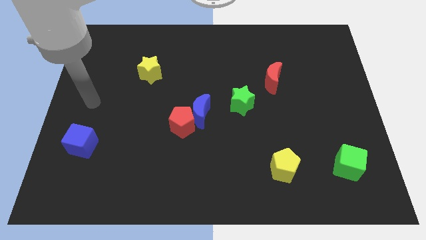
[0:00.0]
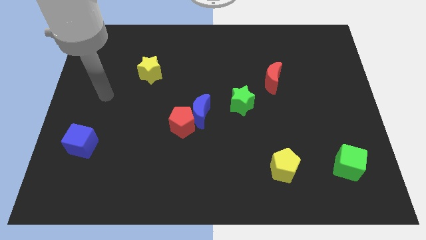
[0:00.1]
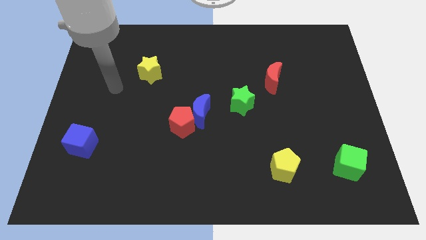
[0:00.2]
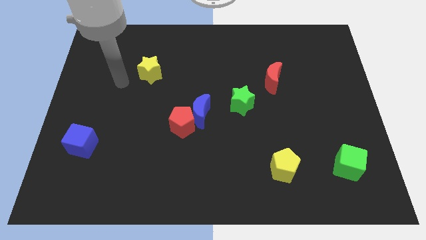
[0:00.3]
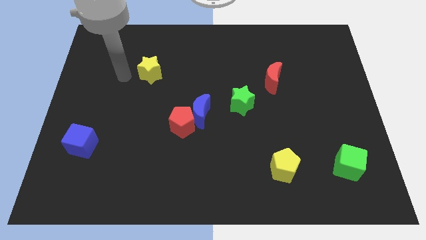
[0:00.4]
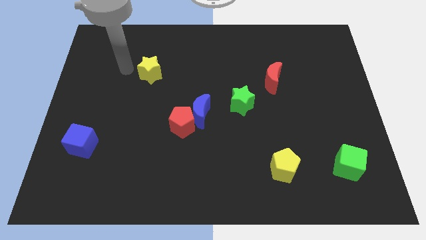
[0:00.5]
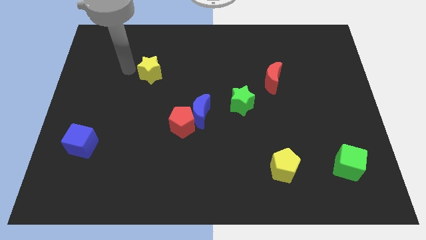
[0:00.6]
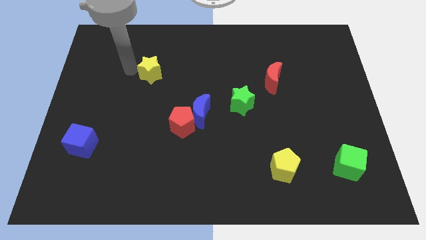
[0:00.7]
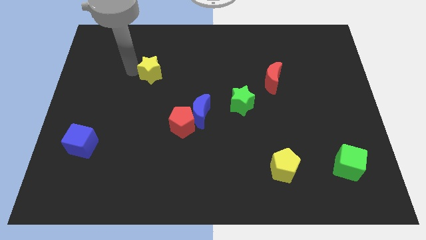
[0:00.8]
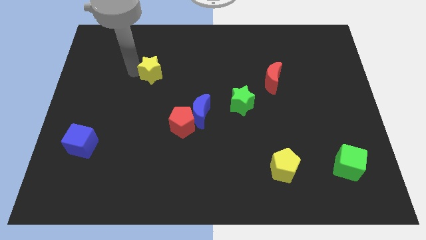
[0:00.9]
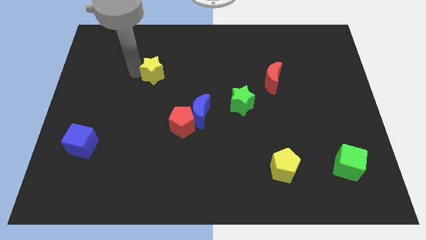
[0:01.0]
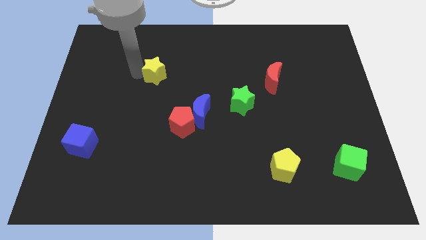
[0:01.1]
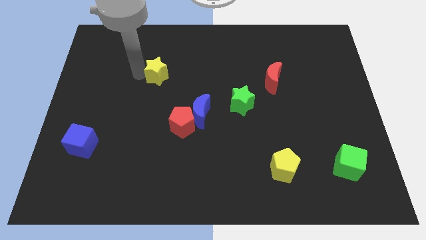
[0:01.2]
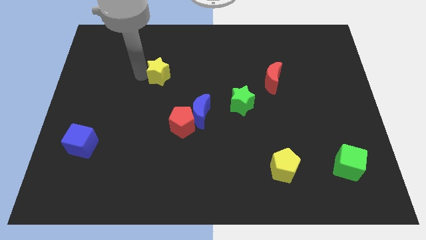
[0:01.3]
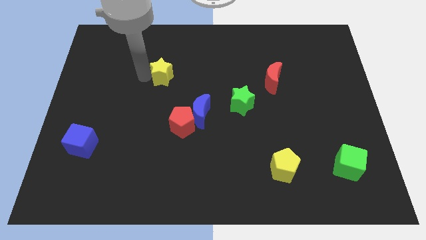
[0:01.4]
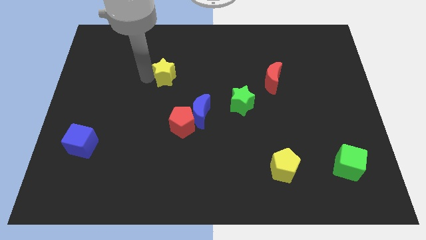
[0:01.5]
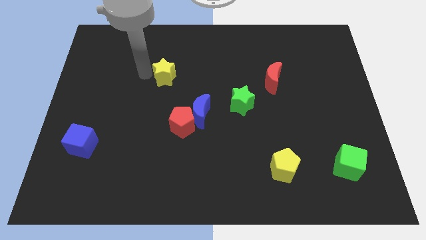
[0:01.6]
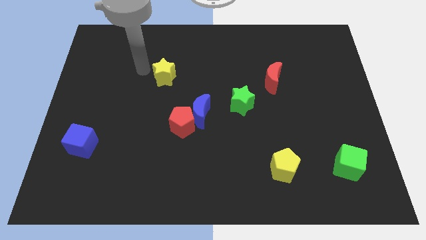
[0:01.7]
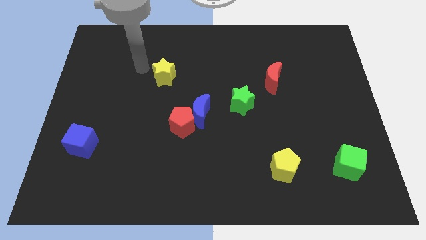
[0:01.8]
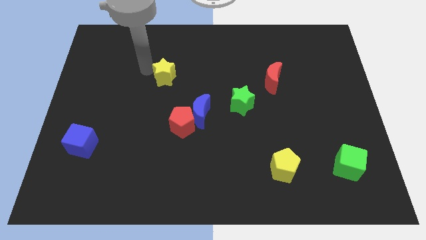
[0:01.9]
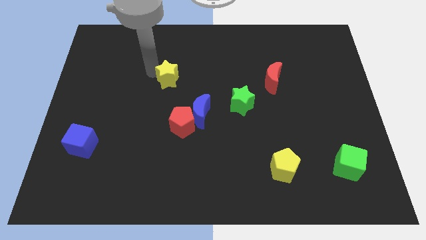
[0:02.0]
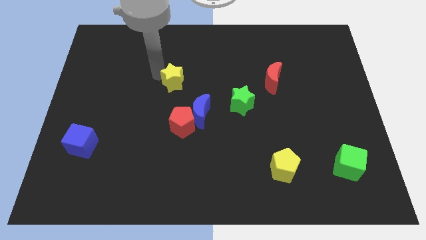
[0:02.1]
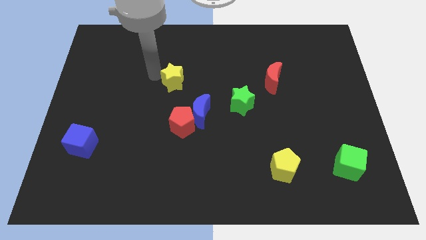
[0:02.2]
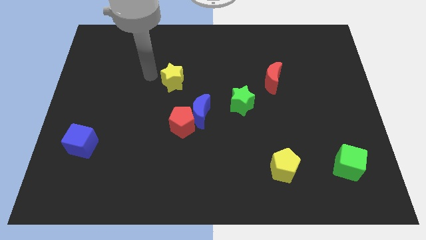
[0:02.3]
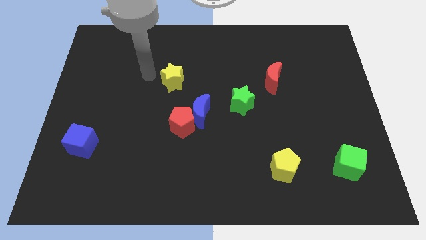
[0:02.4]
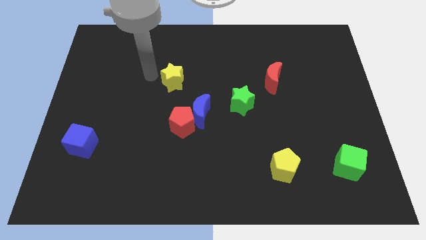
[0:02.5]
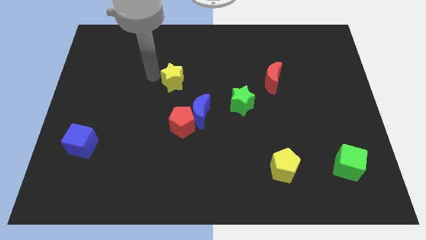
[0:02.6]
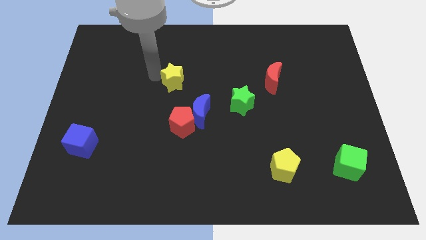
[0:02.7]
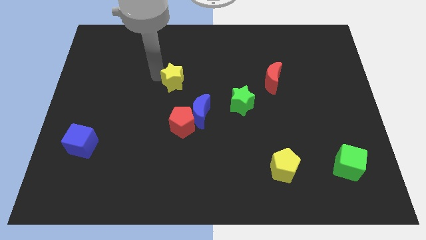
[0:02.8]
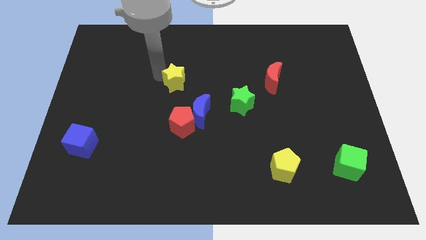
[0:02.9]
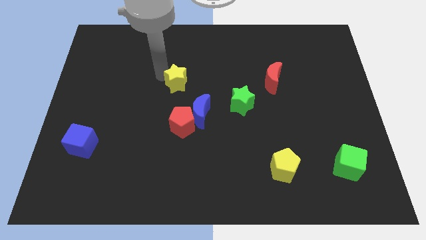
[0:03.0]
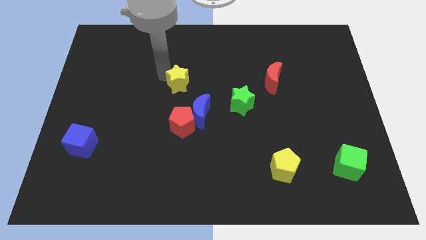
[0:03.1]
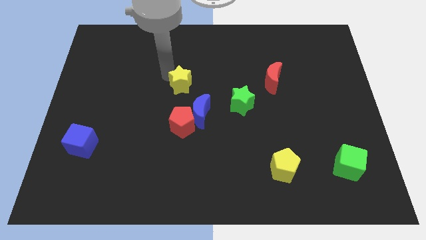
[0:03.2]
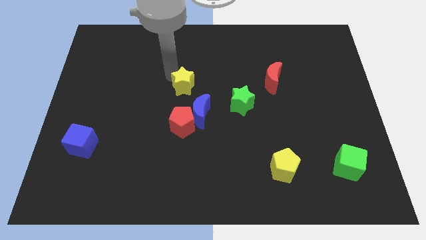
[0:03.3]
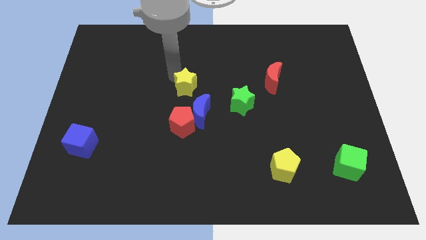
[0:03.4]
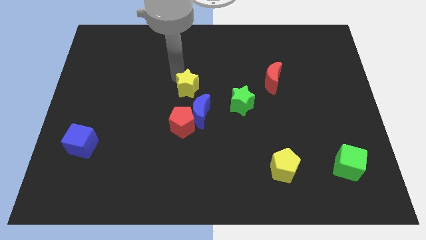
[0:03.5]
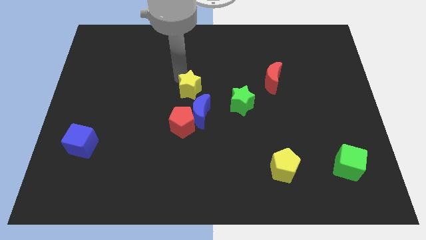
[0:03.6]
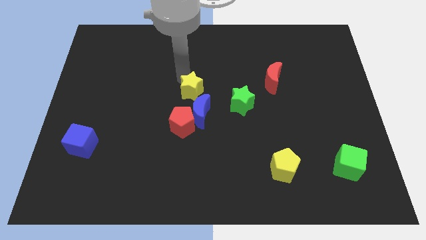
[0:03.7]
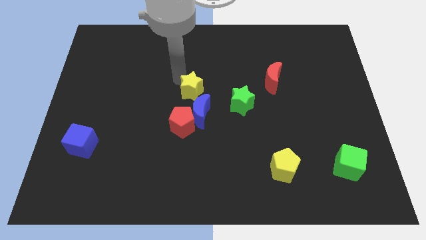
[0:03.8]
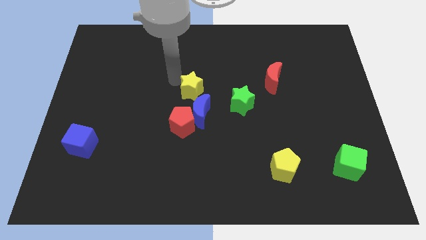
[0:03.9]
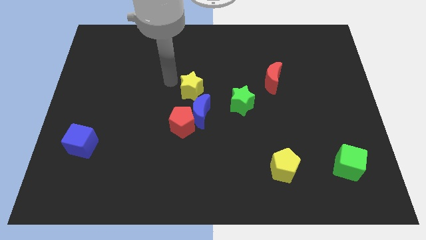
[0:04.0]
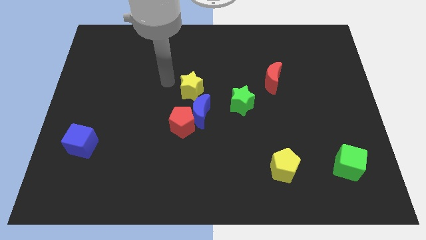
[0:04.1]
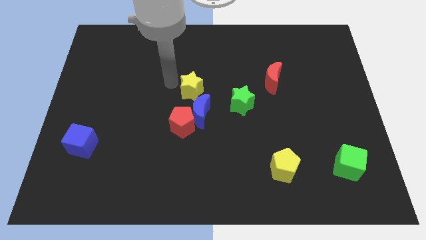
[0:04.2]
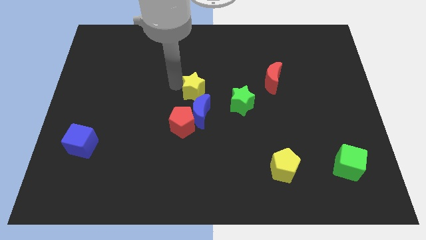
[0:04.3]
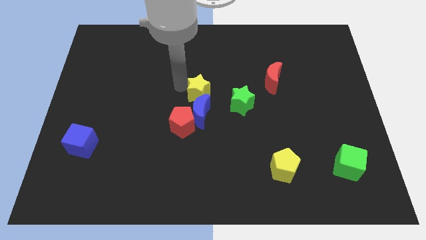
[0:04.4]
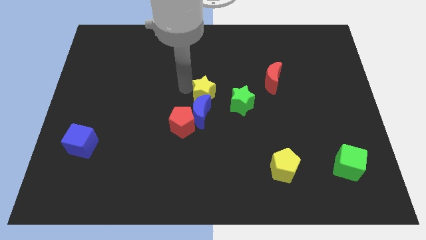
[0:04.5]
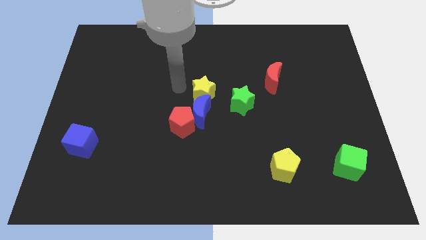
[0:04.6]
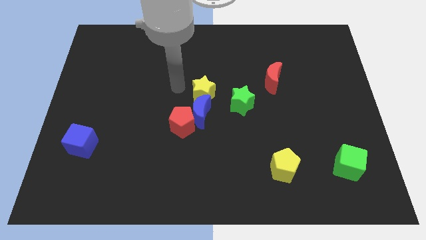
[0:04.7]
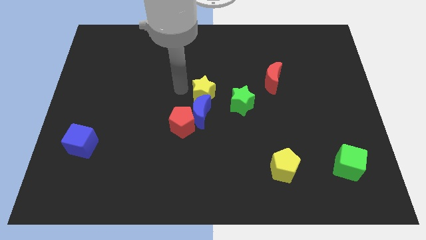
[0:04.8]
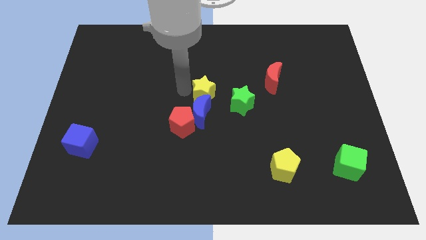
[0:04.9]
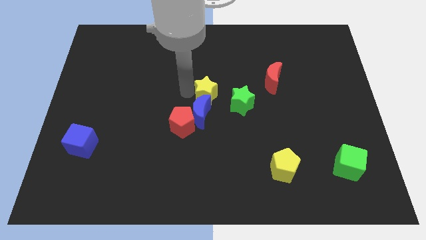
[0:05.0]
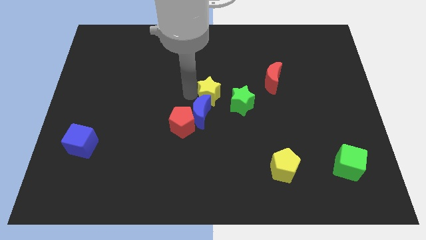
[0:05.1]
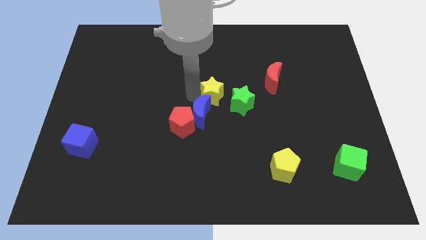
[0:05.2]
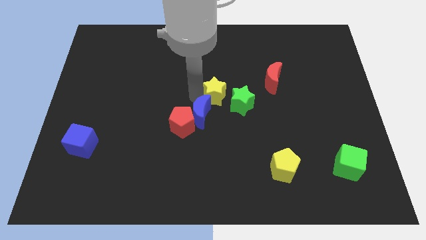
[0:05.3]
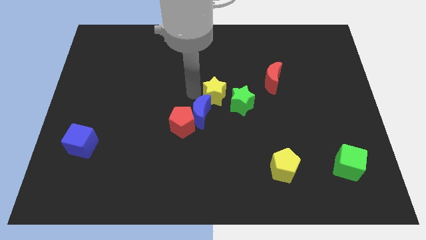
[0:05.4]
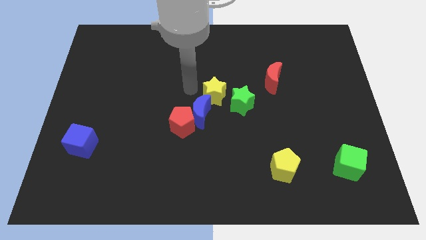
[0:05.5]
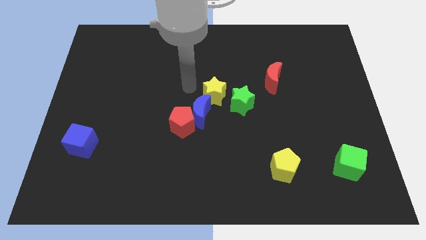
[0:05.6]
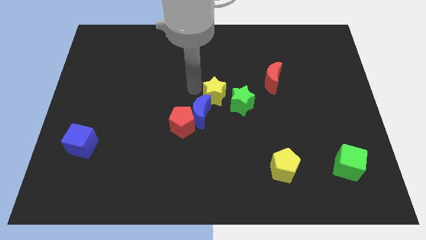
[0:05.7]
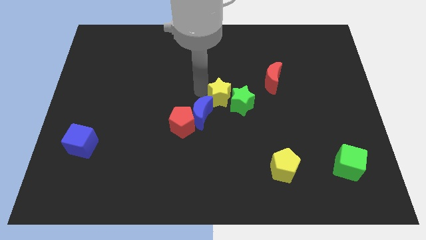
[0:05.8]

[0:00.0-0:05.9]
put the yellow star to the green star

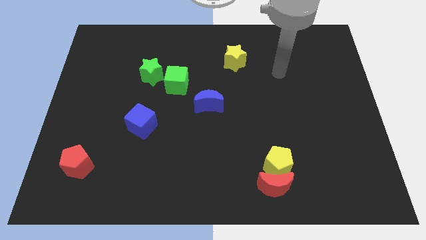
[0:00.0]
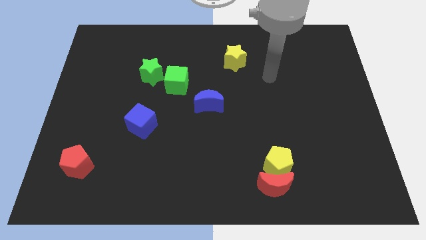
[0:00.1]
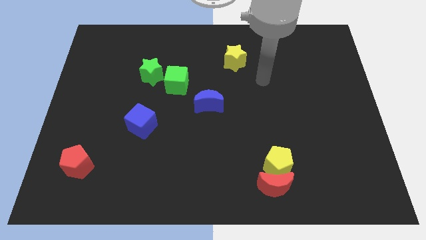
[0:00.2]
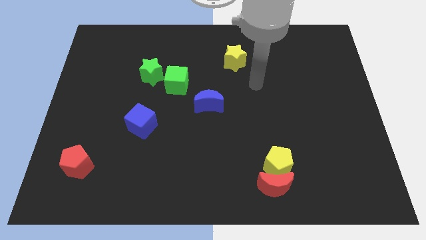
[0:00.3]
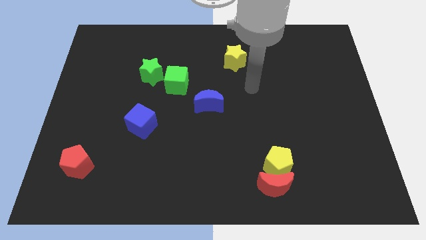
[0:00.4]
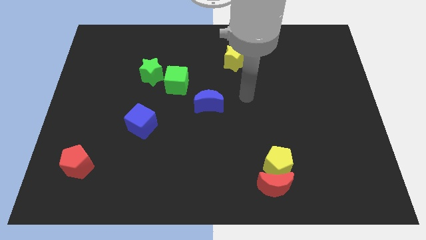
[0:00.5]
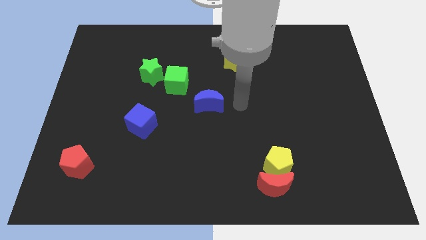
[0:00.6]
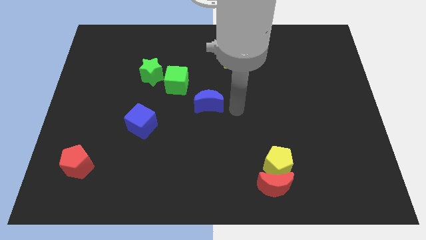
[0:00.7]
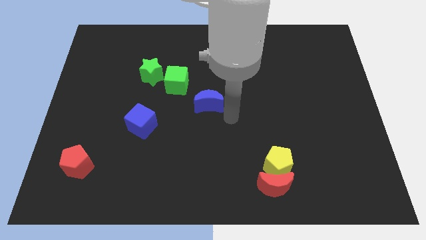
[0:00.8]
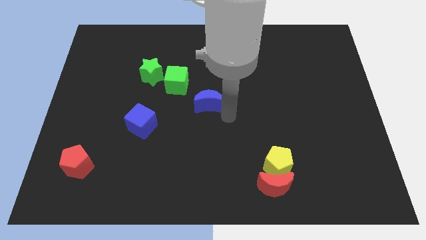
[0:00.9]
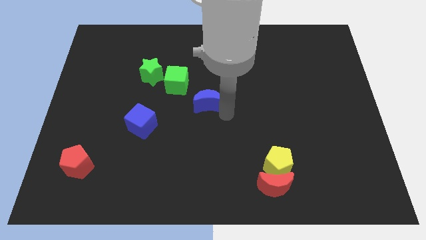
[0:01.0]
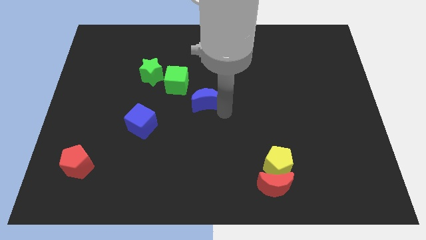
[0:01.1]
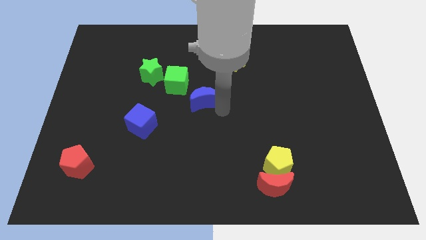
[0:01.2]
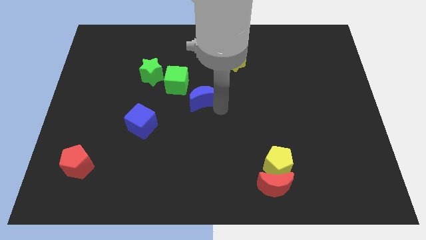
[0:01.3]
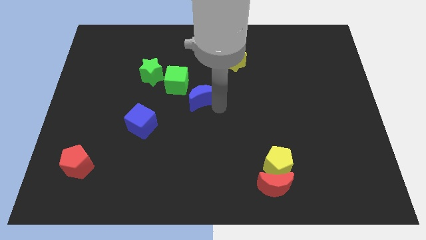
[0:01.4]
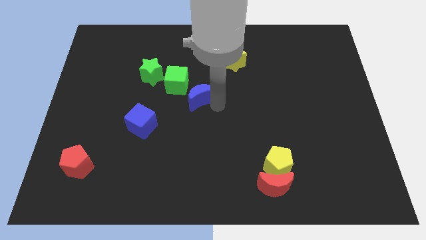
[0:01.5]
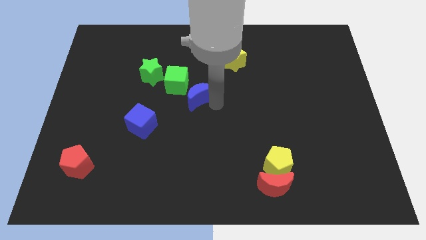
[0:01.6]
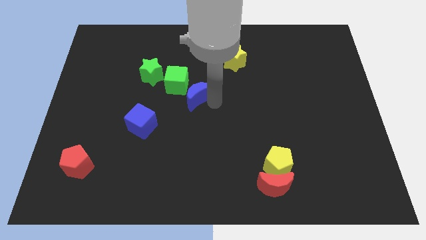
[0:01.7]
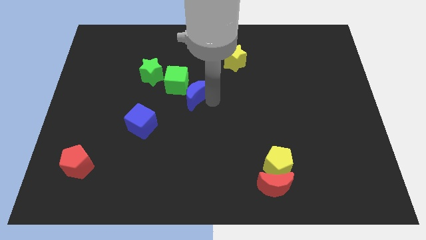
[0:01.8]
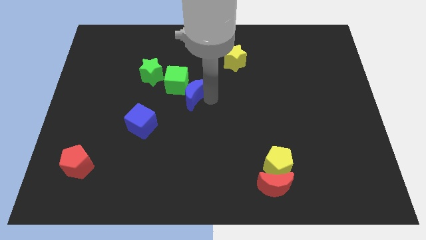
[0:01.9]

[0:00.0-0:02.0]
push the blue moon close to the green cube

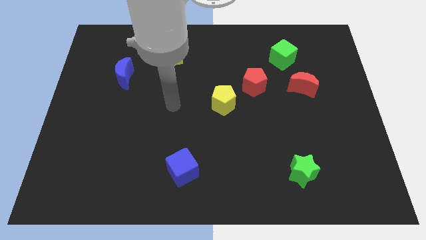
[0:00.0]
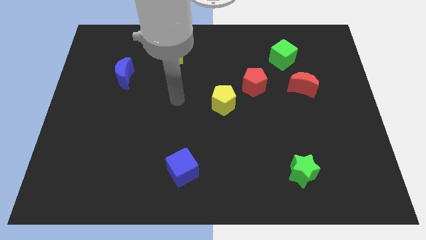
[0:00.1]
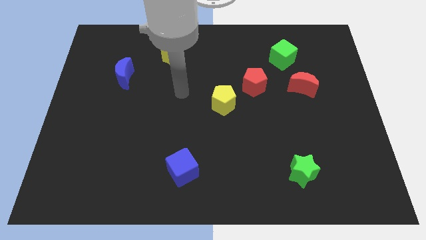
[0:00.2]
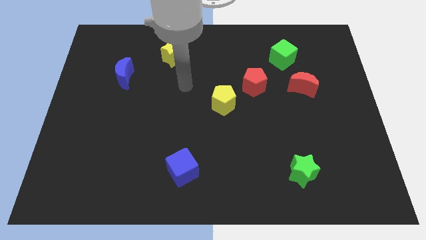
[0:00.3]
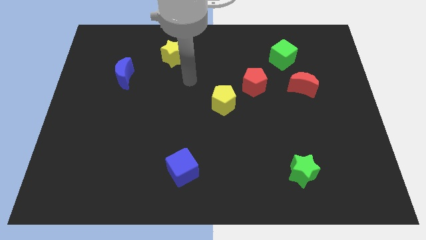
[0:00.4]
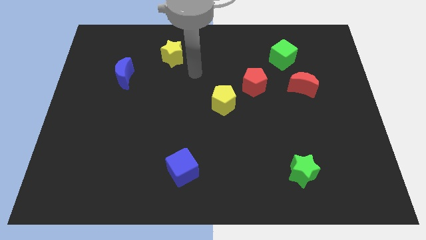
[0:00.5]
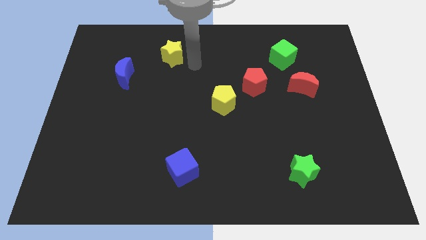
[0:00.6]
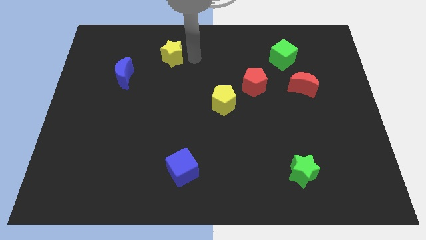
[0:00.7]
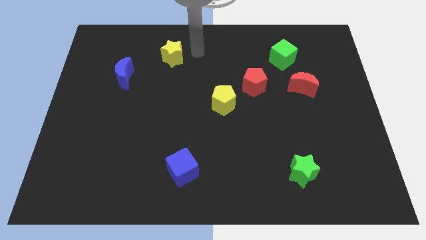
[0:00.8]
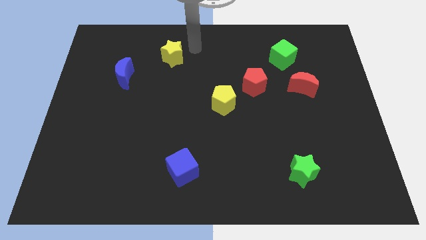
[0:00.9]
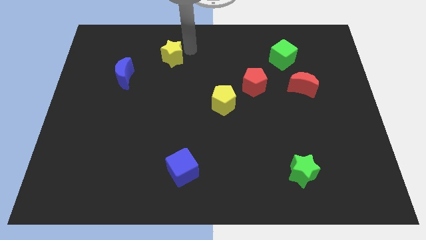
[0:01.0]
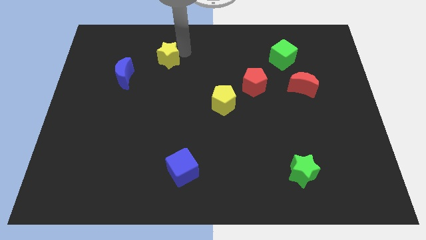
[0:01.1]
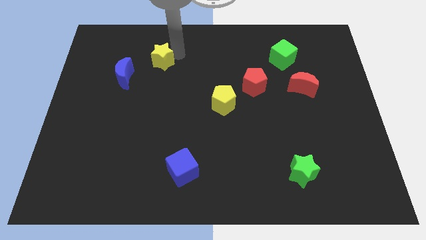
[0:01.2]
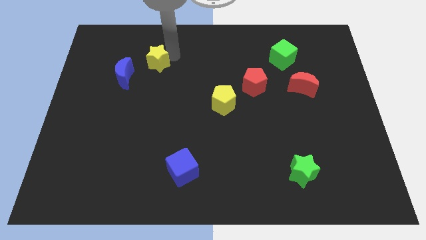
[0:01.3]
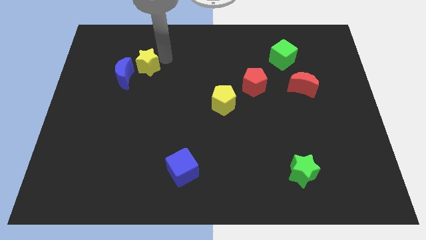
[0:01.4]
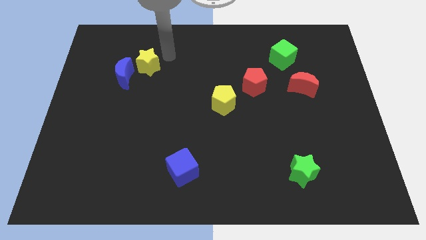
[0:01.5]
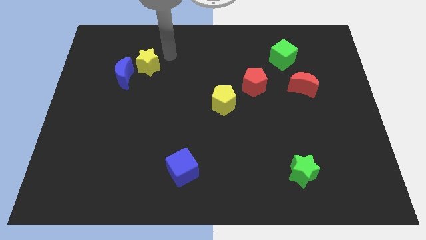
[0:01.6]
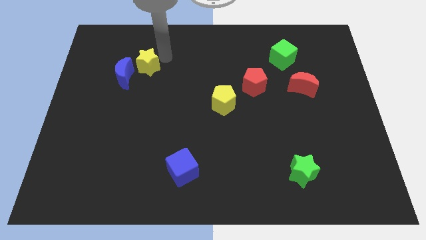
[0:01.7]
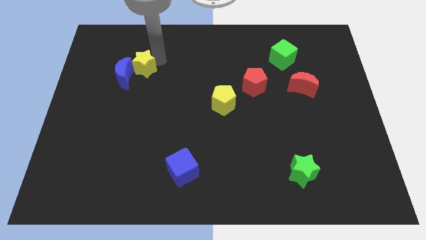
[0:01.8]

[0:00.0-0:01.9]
put the yellow star to the blue moon
